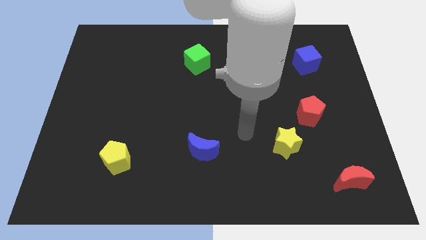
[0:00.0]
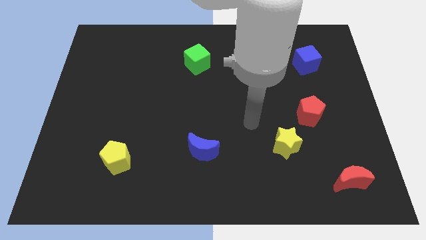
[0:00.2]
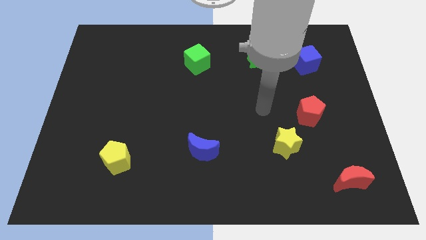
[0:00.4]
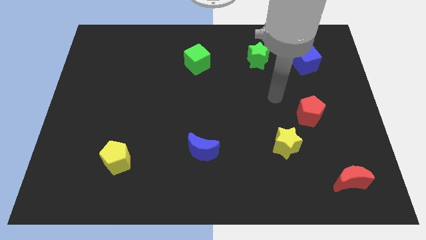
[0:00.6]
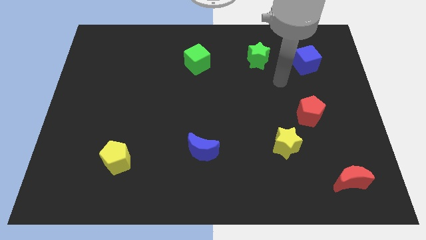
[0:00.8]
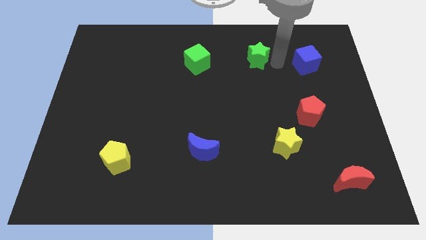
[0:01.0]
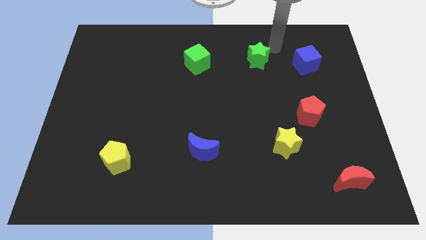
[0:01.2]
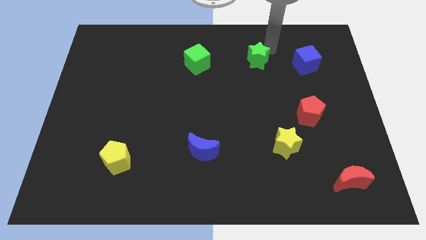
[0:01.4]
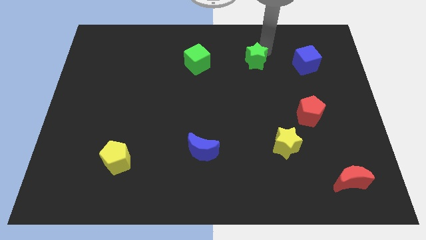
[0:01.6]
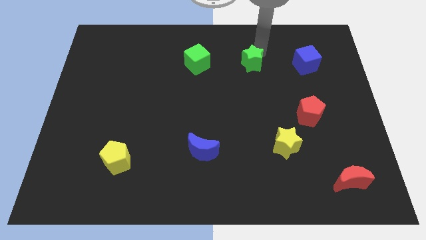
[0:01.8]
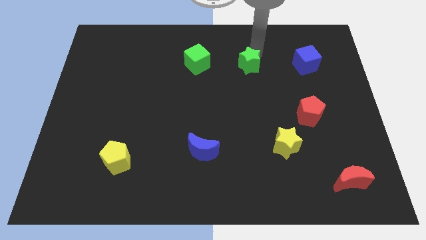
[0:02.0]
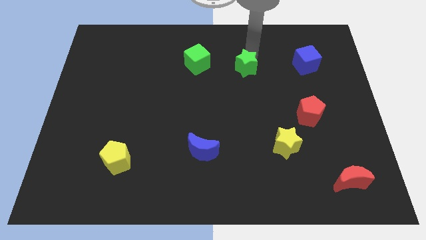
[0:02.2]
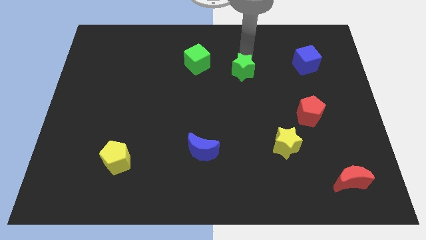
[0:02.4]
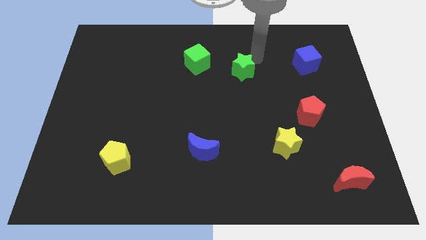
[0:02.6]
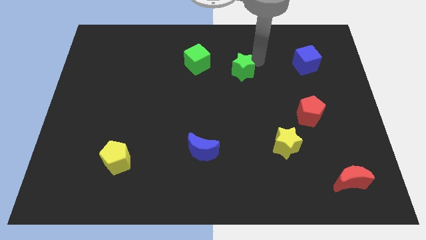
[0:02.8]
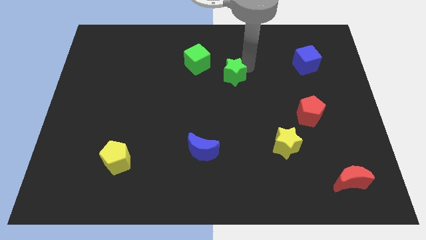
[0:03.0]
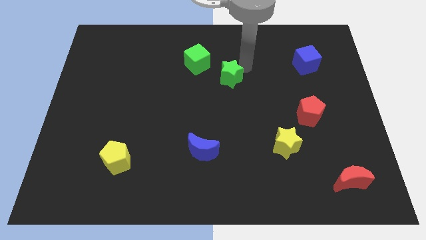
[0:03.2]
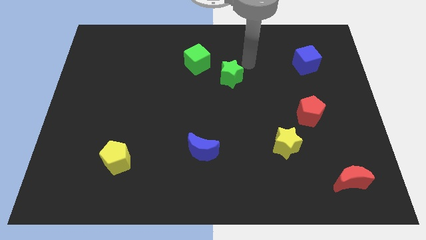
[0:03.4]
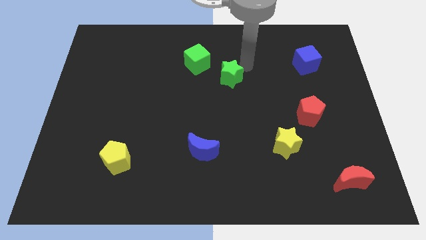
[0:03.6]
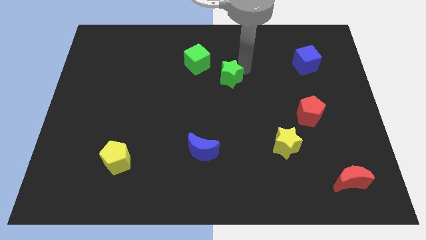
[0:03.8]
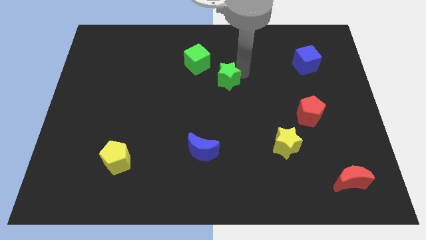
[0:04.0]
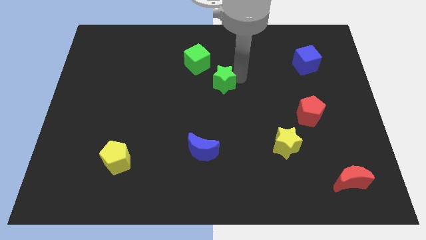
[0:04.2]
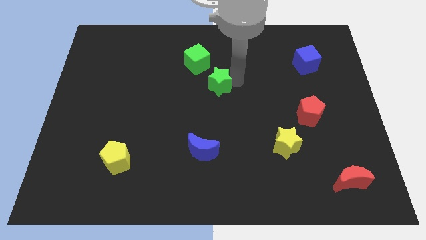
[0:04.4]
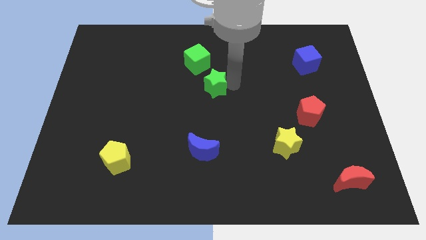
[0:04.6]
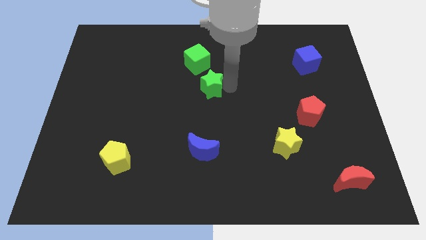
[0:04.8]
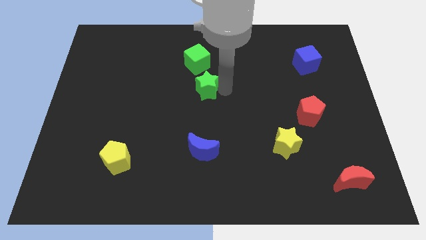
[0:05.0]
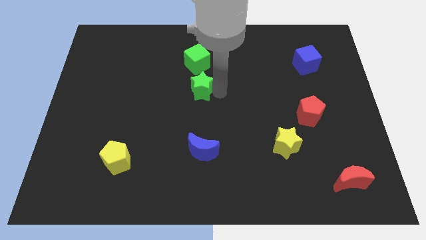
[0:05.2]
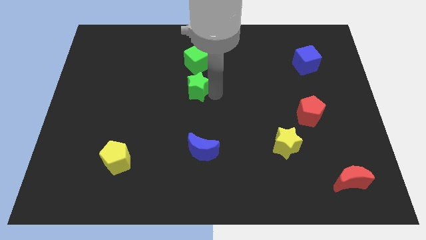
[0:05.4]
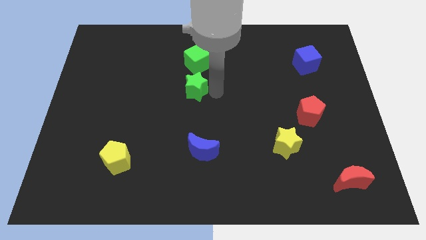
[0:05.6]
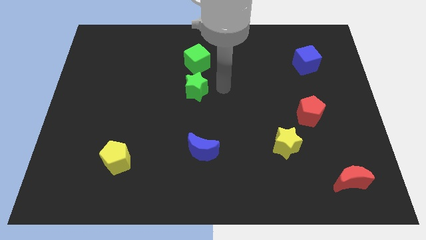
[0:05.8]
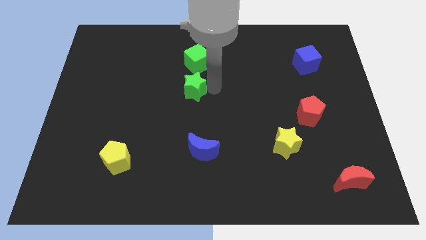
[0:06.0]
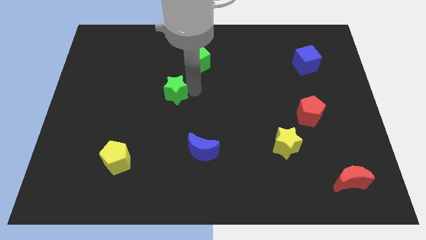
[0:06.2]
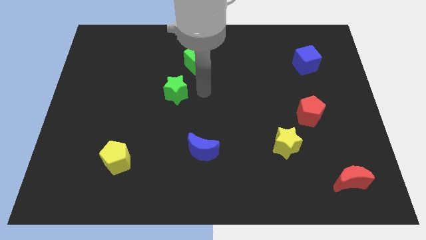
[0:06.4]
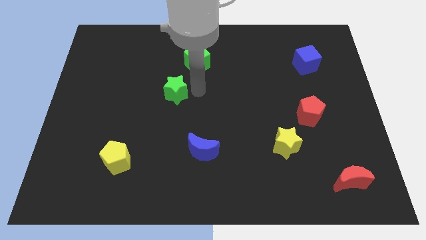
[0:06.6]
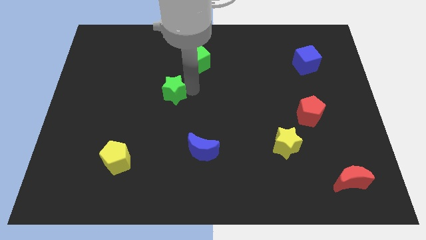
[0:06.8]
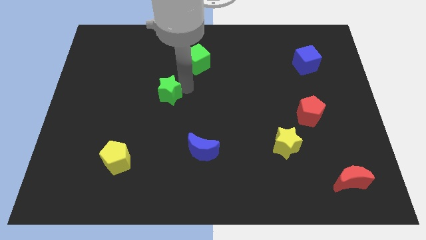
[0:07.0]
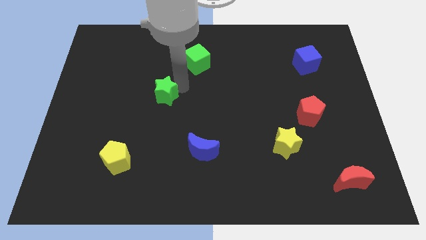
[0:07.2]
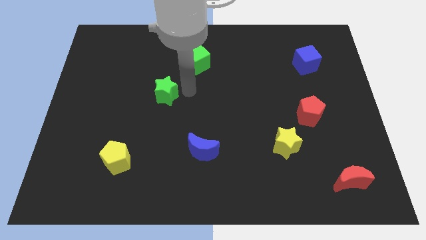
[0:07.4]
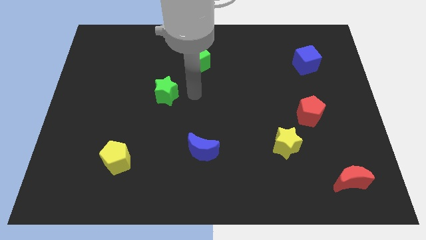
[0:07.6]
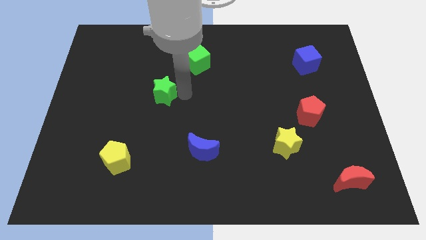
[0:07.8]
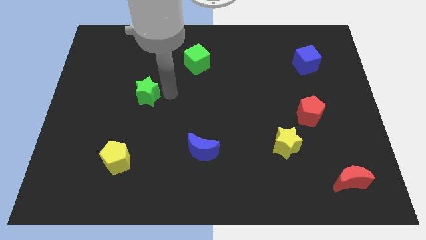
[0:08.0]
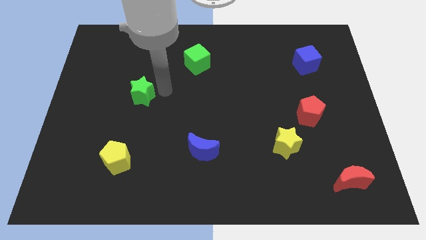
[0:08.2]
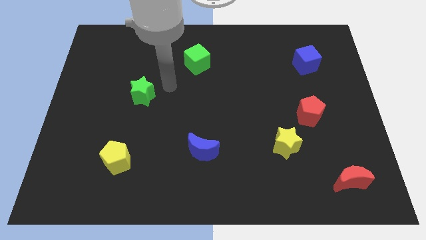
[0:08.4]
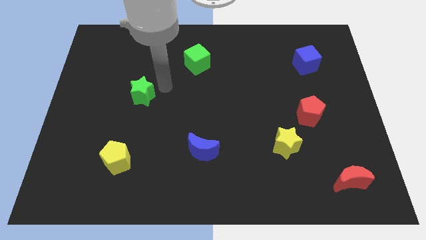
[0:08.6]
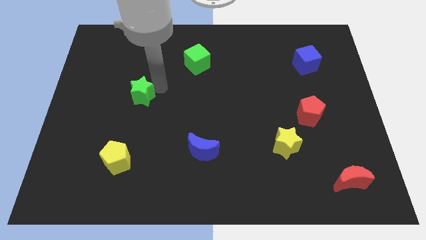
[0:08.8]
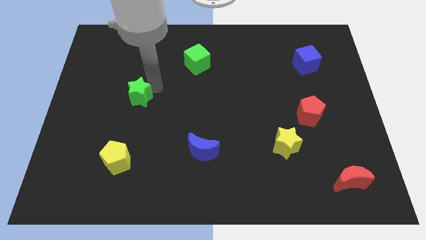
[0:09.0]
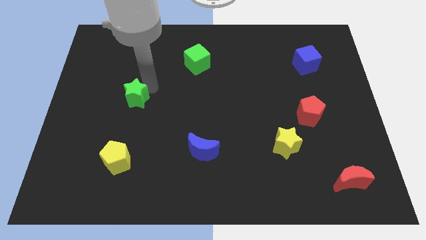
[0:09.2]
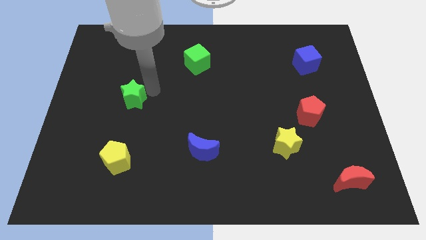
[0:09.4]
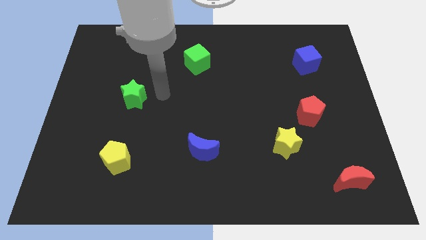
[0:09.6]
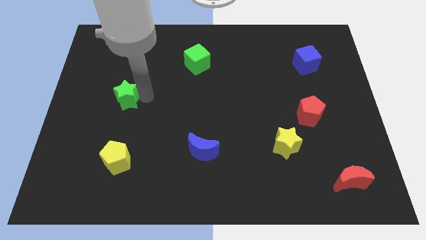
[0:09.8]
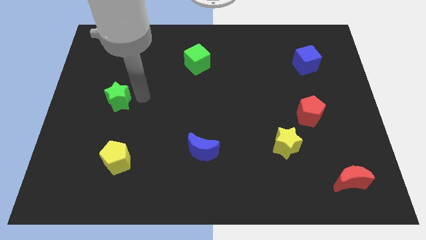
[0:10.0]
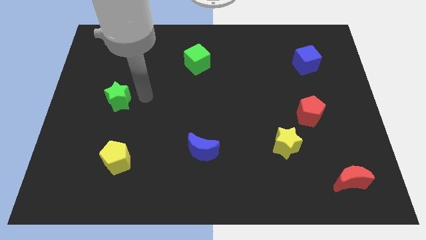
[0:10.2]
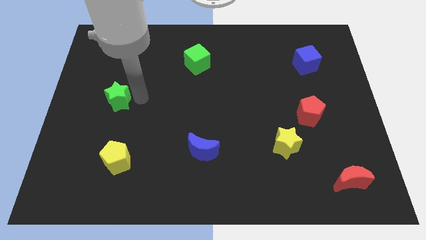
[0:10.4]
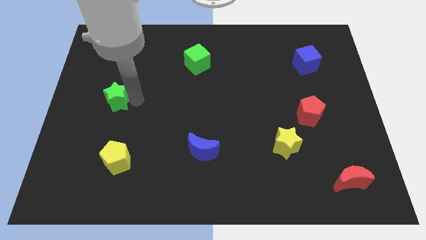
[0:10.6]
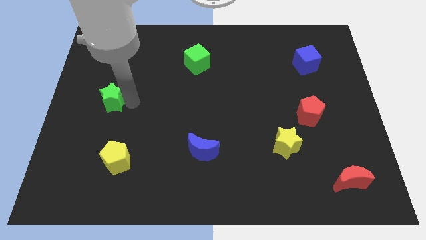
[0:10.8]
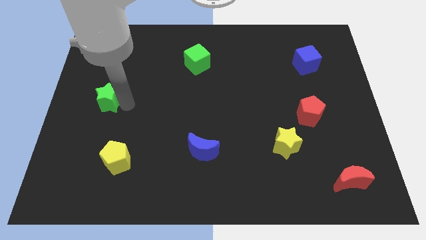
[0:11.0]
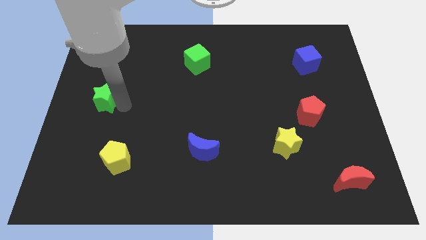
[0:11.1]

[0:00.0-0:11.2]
move the green star to the left side

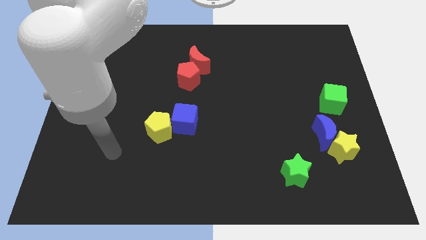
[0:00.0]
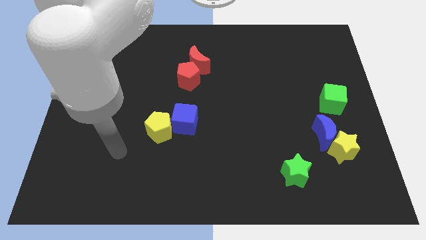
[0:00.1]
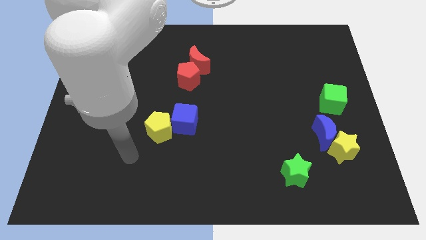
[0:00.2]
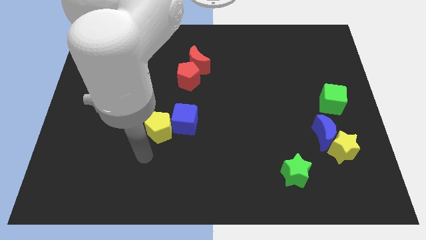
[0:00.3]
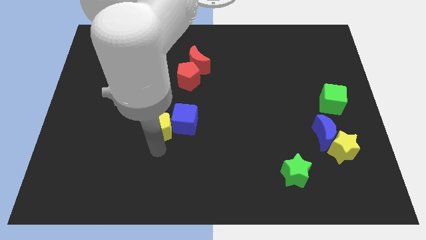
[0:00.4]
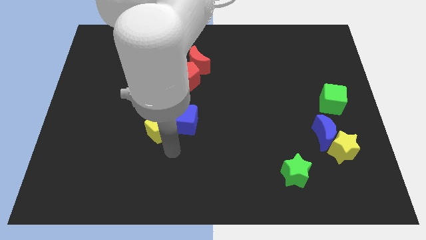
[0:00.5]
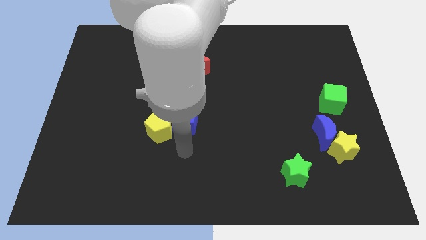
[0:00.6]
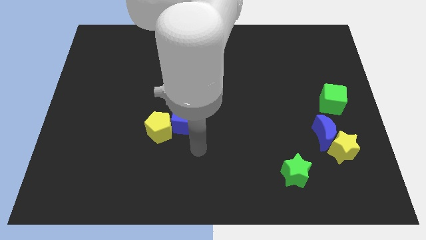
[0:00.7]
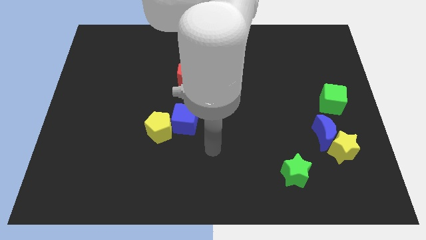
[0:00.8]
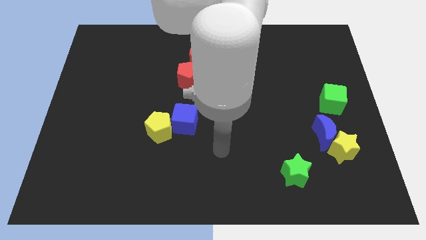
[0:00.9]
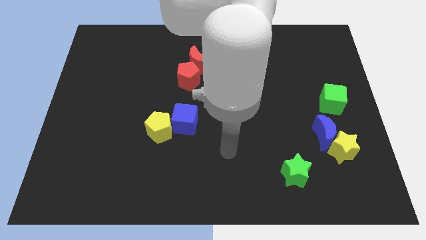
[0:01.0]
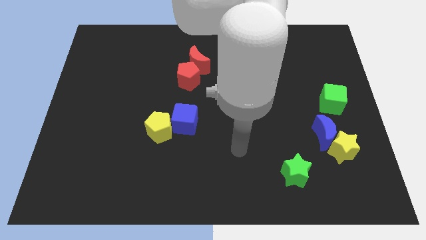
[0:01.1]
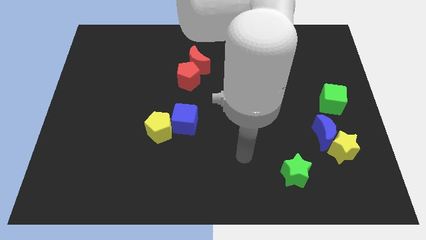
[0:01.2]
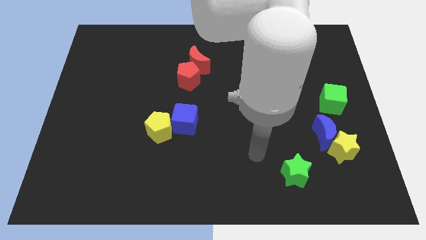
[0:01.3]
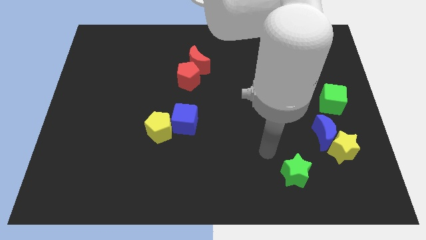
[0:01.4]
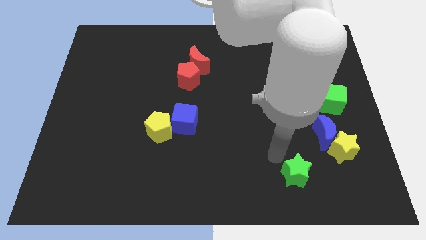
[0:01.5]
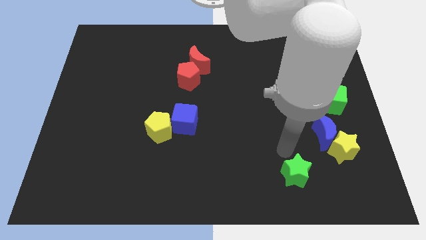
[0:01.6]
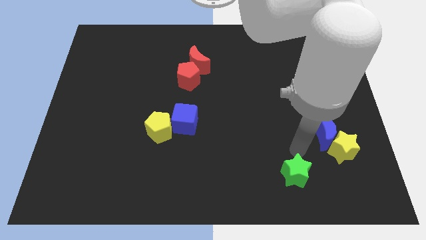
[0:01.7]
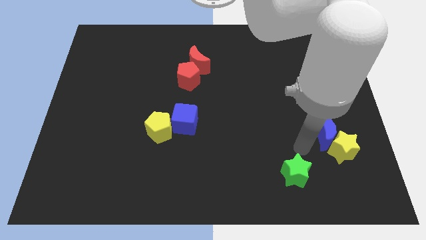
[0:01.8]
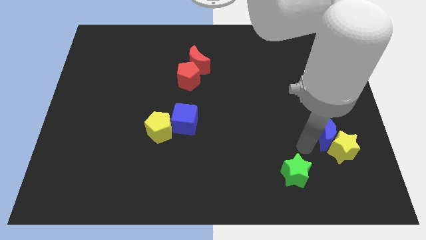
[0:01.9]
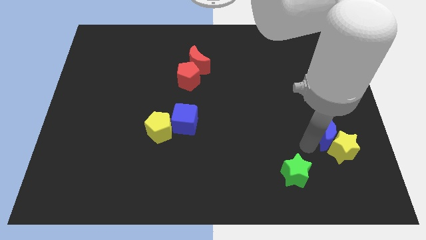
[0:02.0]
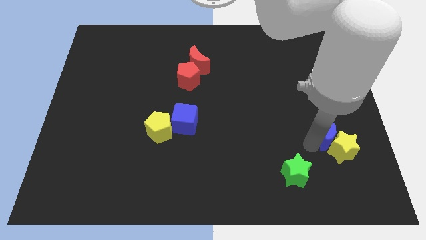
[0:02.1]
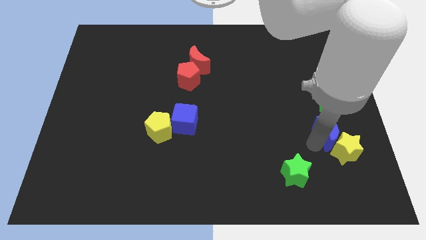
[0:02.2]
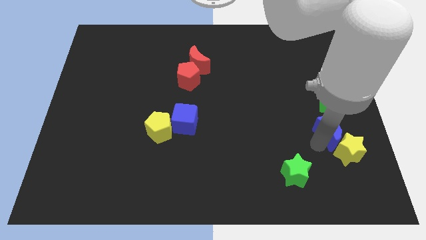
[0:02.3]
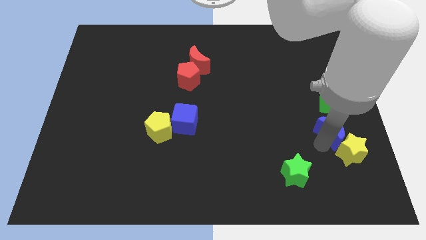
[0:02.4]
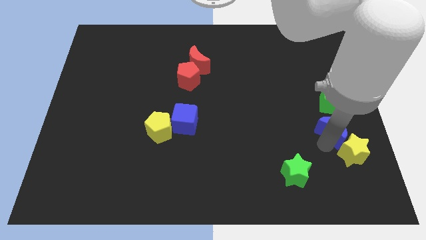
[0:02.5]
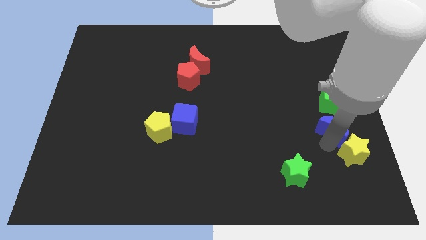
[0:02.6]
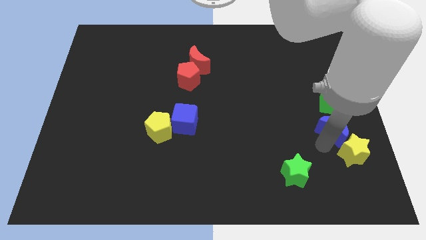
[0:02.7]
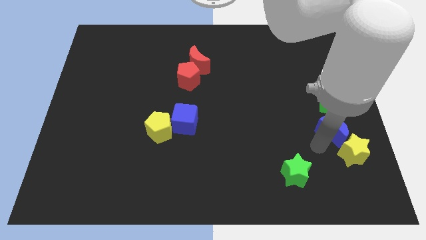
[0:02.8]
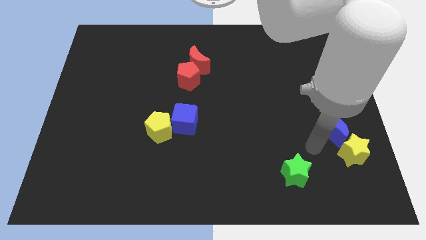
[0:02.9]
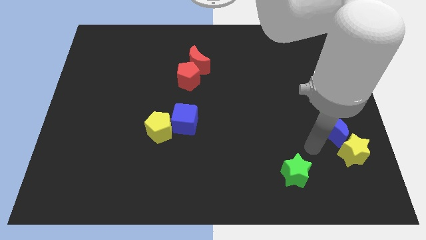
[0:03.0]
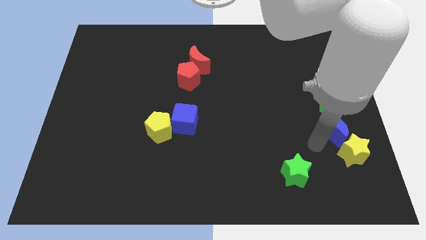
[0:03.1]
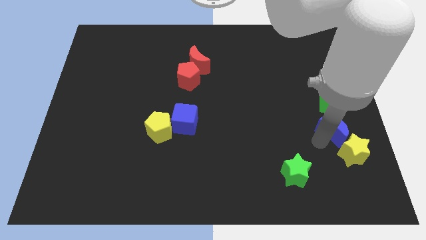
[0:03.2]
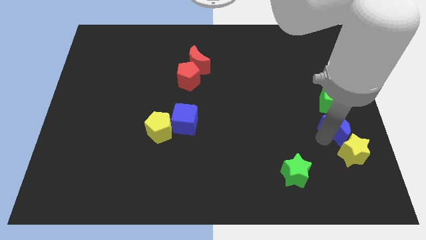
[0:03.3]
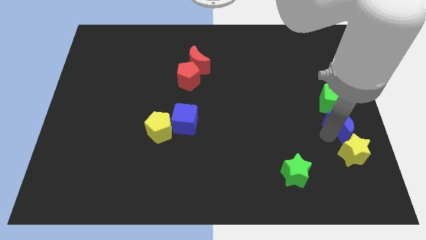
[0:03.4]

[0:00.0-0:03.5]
move the blue moon to the center right
